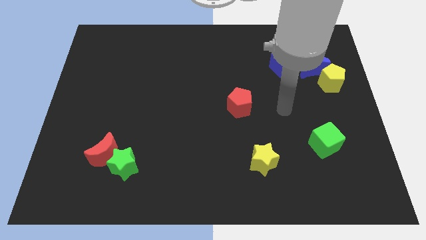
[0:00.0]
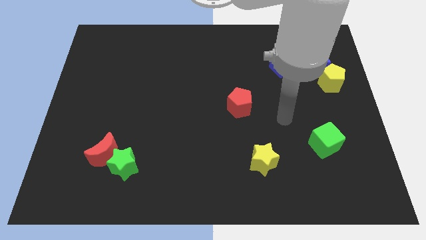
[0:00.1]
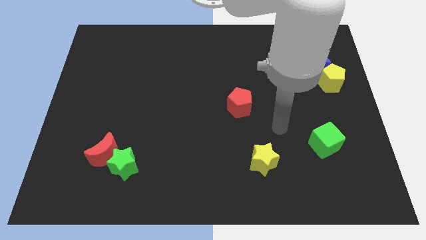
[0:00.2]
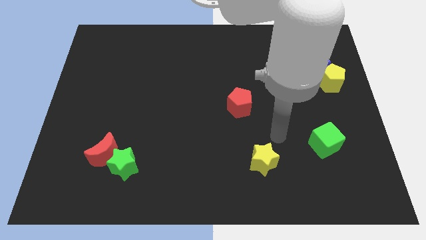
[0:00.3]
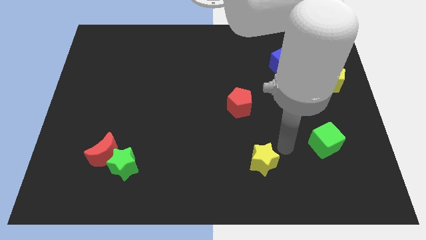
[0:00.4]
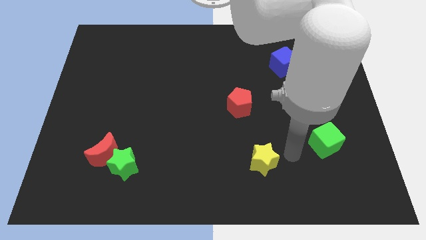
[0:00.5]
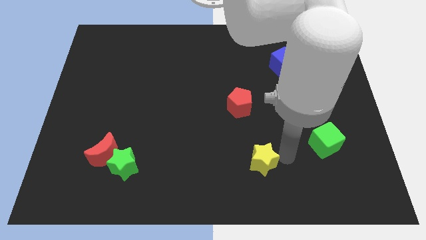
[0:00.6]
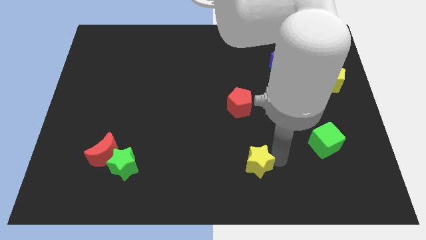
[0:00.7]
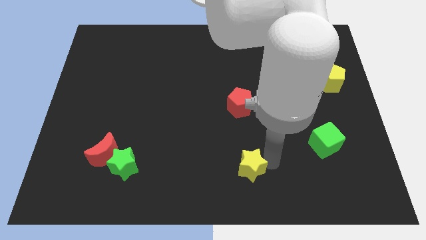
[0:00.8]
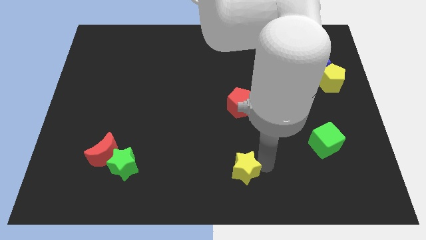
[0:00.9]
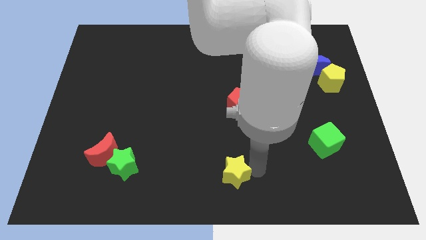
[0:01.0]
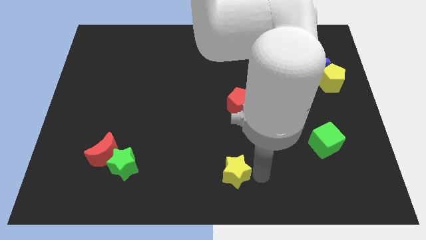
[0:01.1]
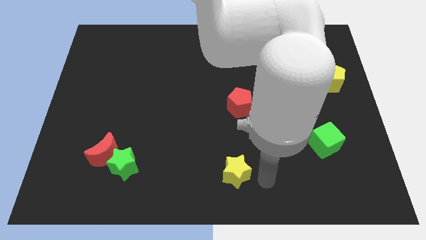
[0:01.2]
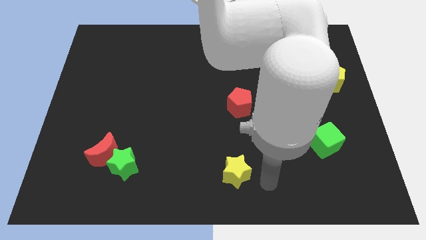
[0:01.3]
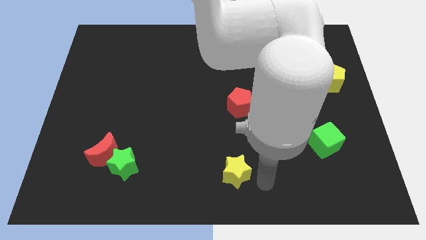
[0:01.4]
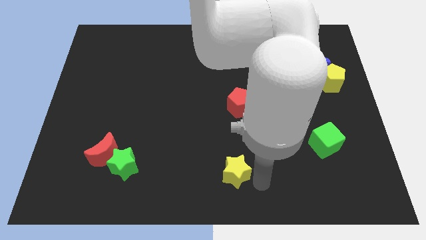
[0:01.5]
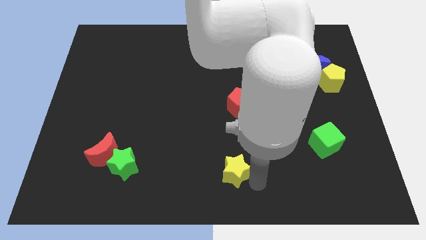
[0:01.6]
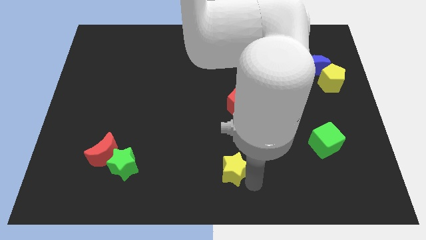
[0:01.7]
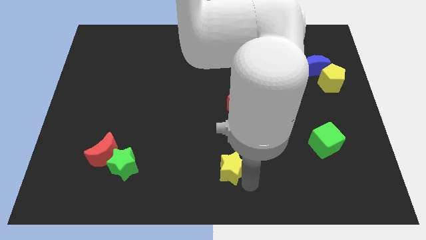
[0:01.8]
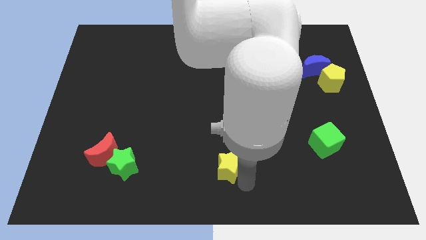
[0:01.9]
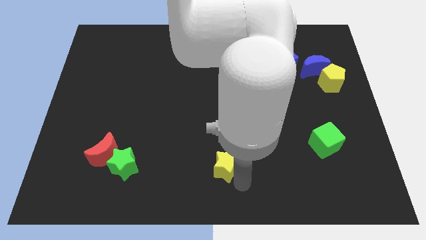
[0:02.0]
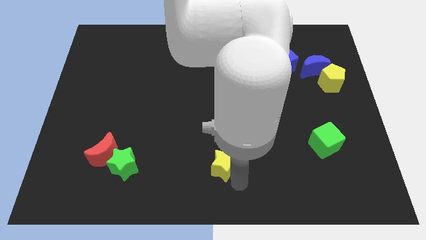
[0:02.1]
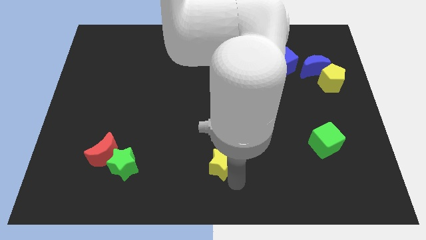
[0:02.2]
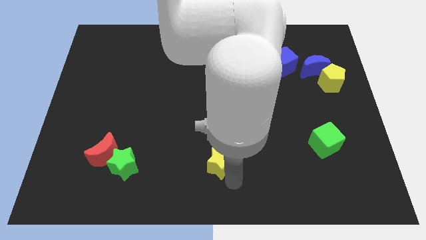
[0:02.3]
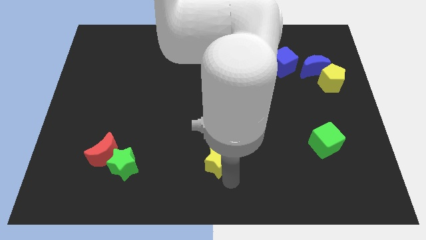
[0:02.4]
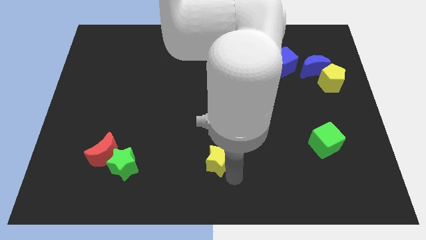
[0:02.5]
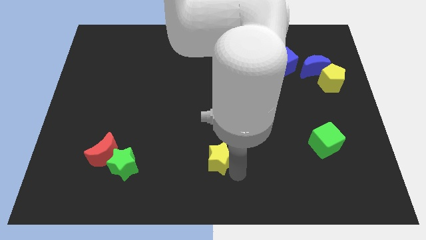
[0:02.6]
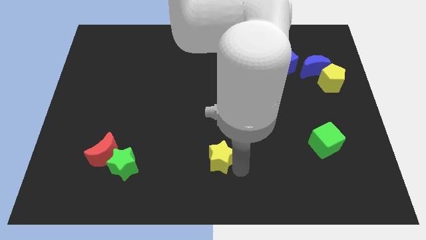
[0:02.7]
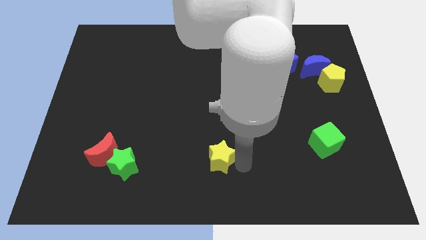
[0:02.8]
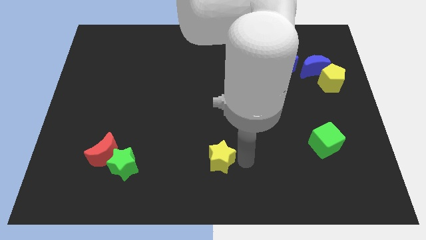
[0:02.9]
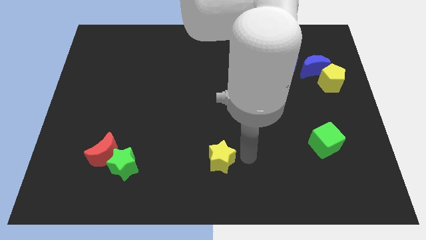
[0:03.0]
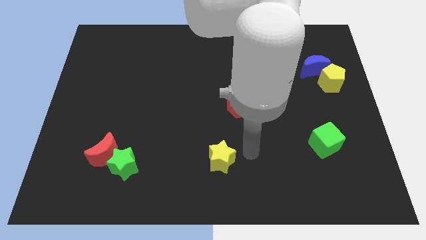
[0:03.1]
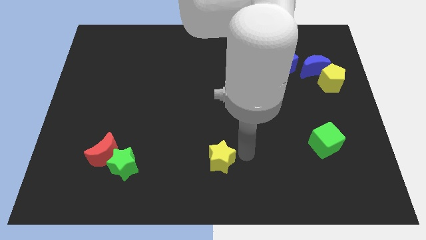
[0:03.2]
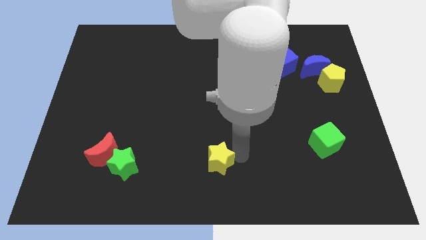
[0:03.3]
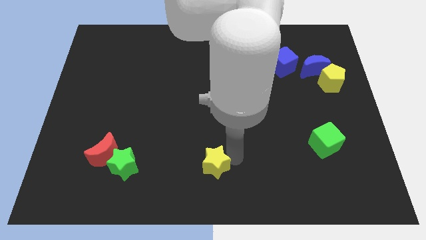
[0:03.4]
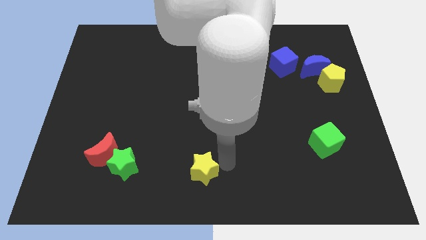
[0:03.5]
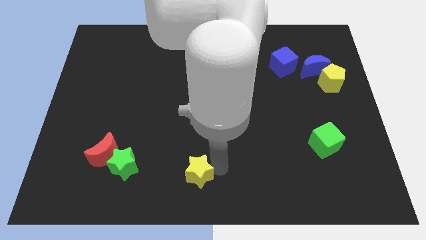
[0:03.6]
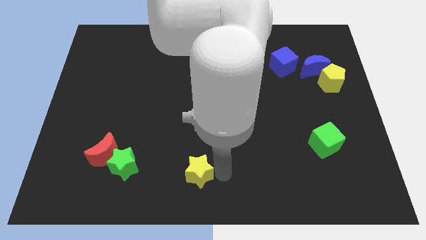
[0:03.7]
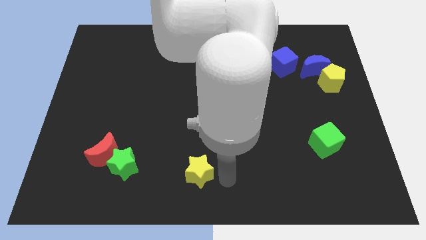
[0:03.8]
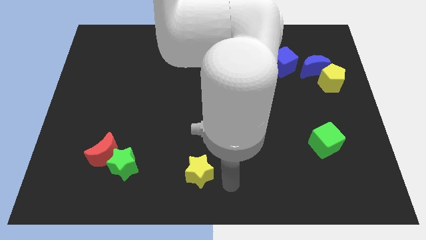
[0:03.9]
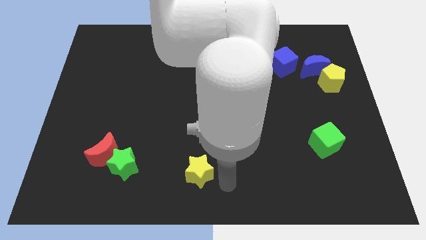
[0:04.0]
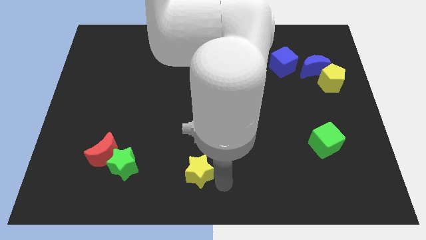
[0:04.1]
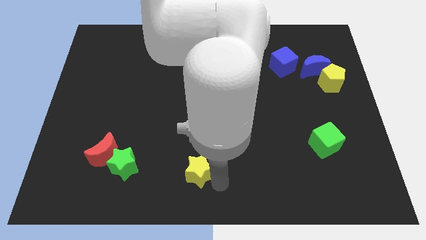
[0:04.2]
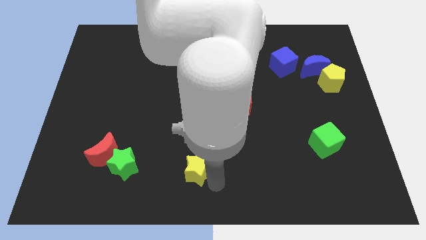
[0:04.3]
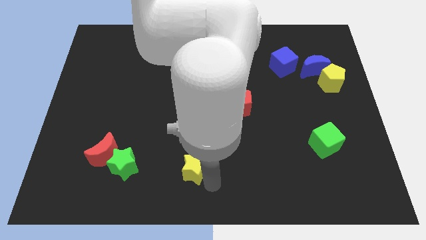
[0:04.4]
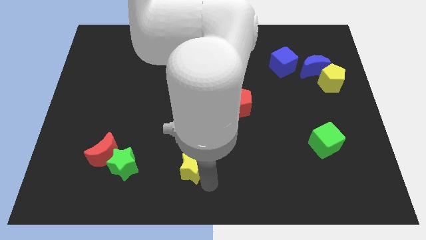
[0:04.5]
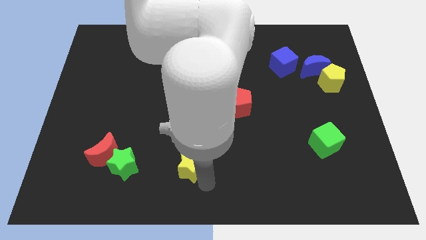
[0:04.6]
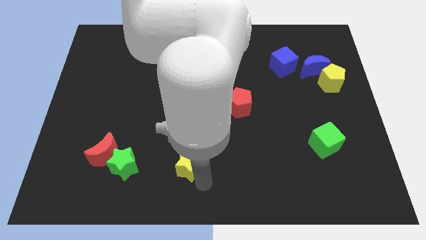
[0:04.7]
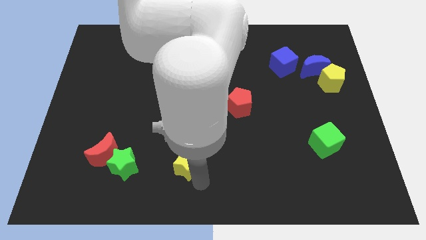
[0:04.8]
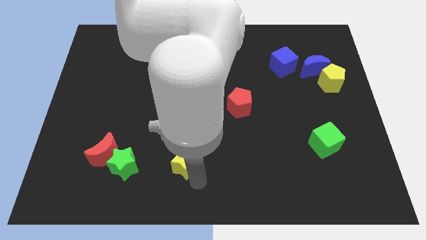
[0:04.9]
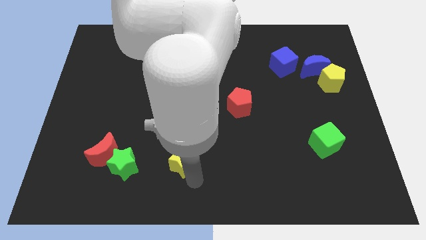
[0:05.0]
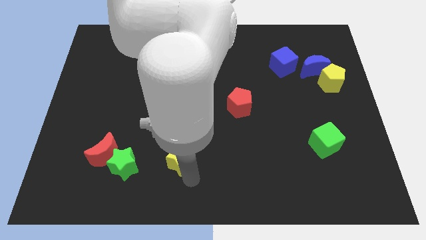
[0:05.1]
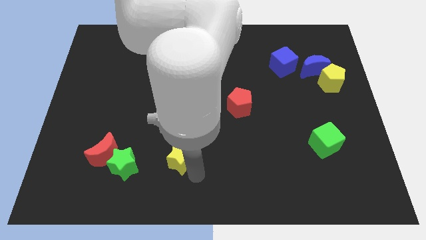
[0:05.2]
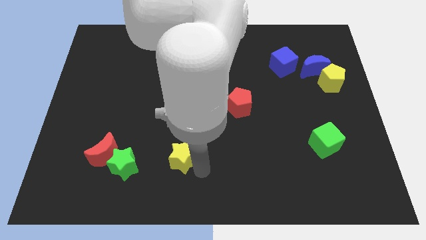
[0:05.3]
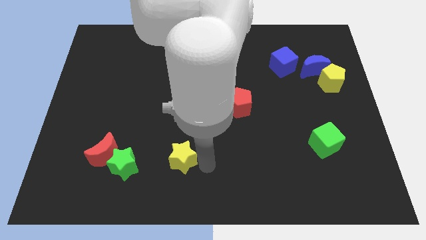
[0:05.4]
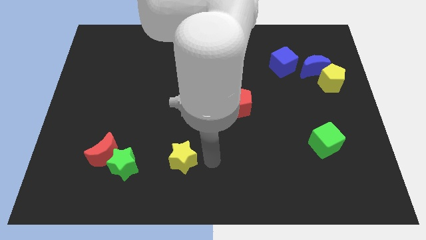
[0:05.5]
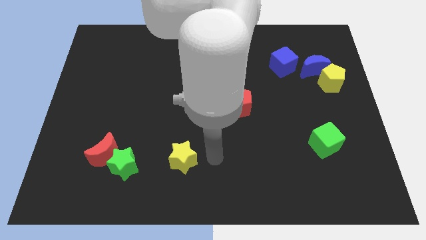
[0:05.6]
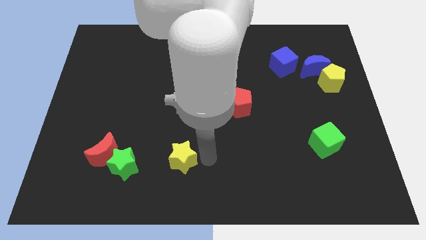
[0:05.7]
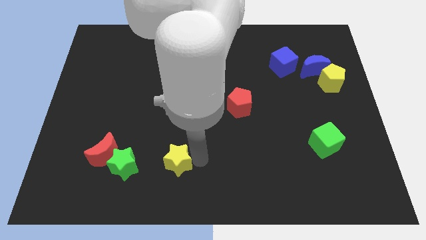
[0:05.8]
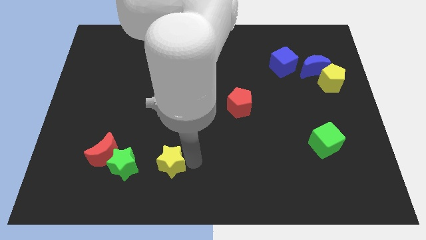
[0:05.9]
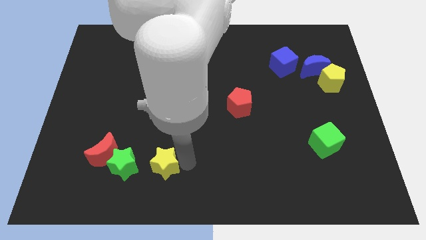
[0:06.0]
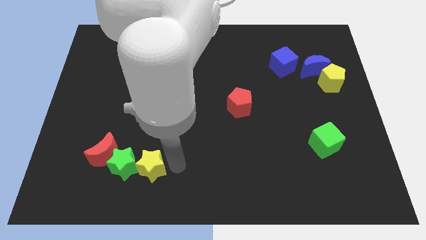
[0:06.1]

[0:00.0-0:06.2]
push the yellow star close to the green star
